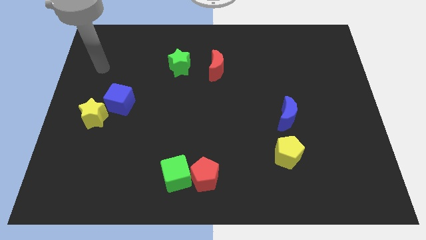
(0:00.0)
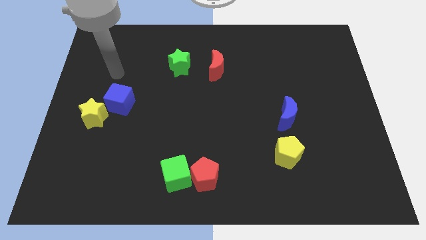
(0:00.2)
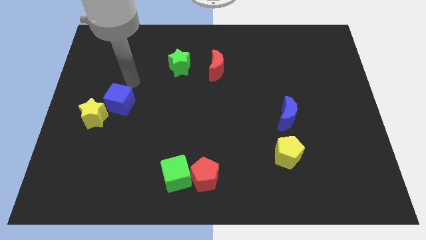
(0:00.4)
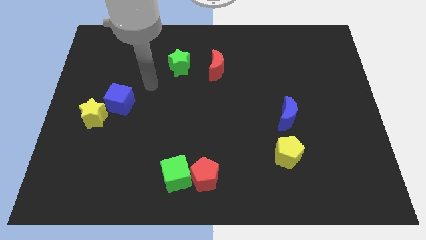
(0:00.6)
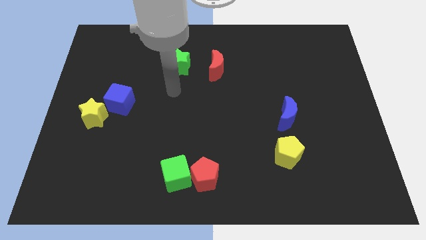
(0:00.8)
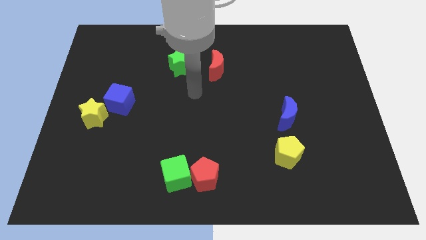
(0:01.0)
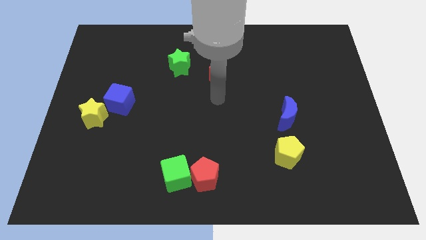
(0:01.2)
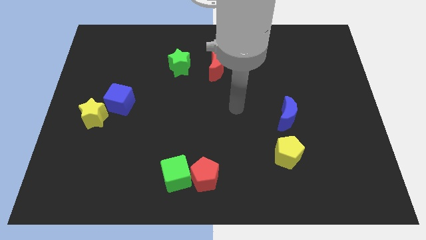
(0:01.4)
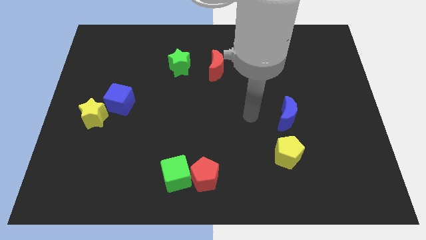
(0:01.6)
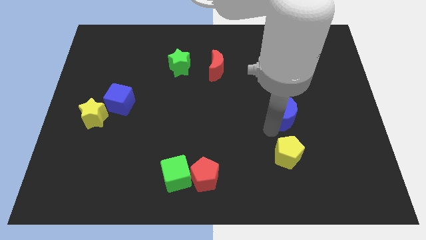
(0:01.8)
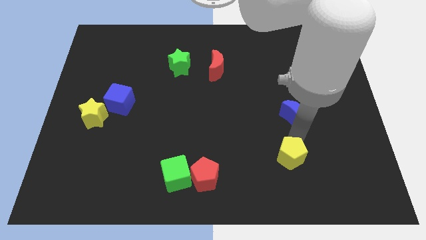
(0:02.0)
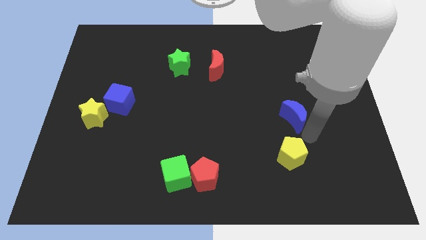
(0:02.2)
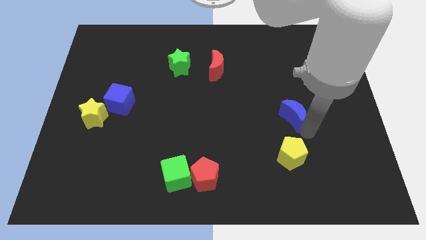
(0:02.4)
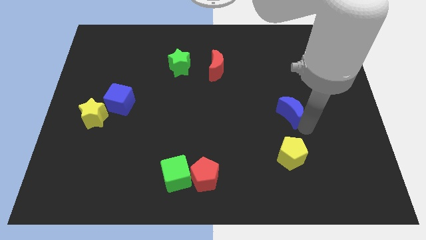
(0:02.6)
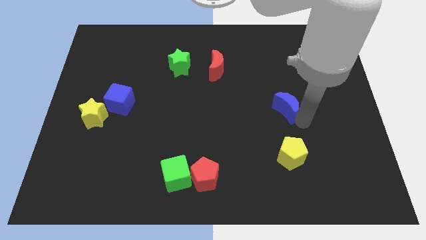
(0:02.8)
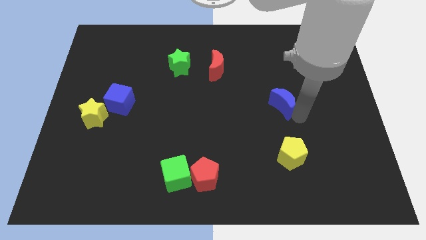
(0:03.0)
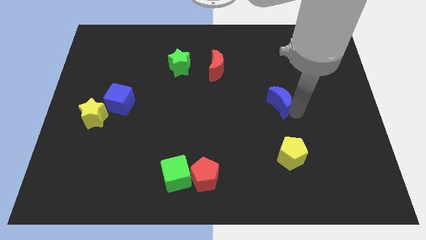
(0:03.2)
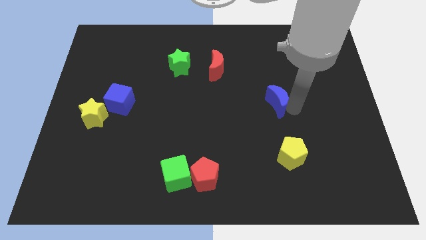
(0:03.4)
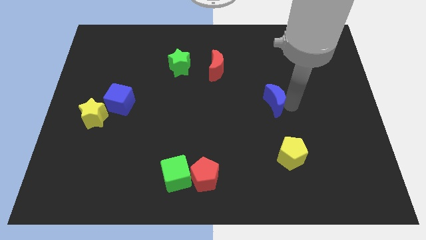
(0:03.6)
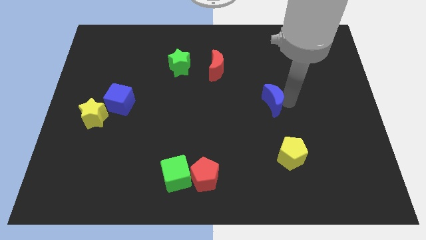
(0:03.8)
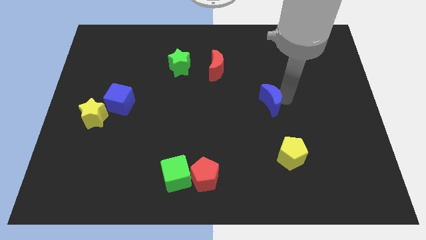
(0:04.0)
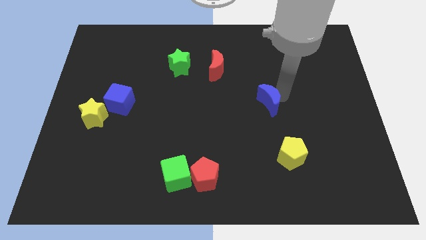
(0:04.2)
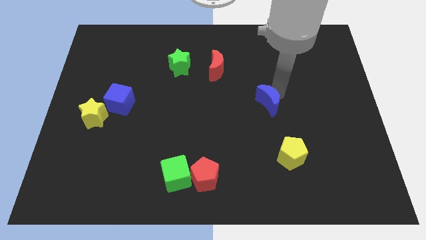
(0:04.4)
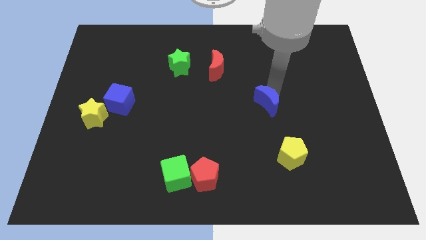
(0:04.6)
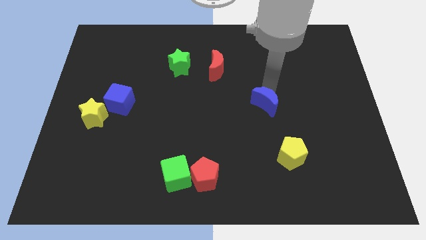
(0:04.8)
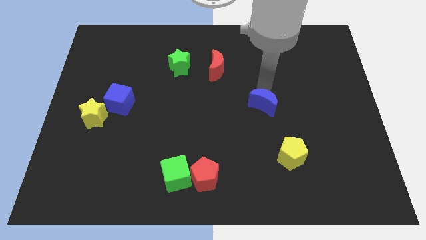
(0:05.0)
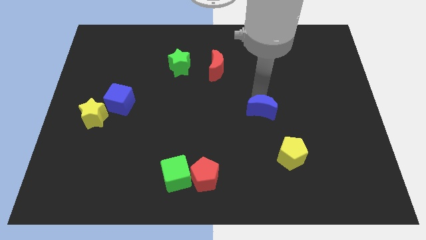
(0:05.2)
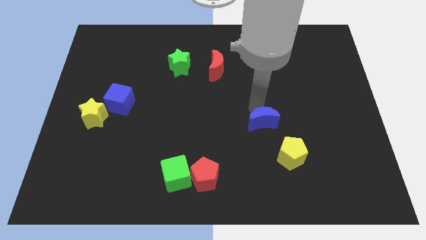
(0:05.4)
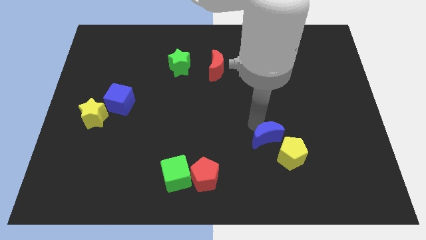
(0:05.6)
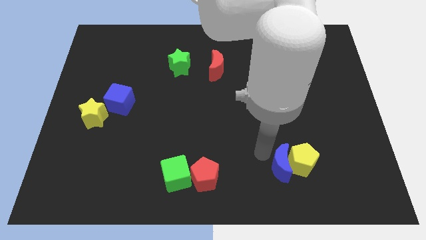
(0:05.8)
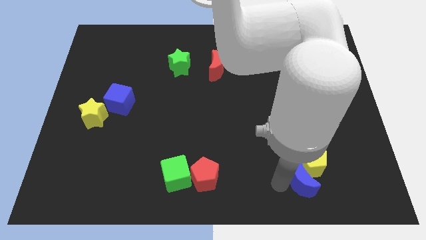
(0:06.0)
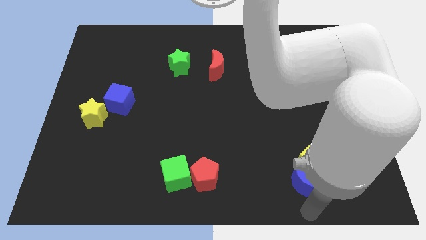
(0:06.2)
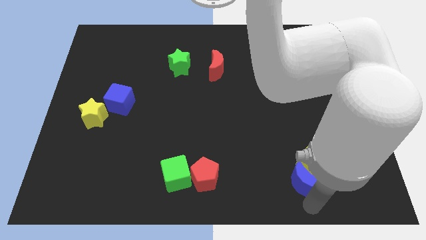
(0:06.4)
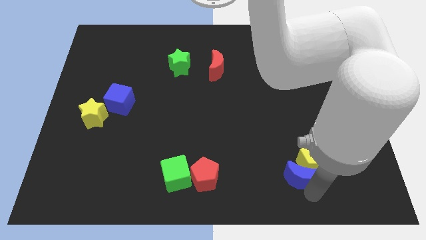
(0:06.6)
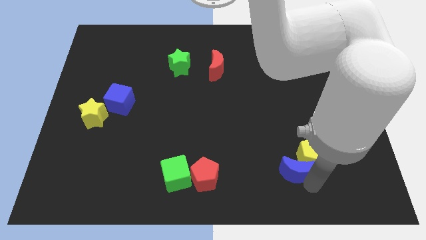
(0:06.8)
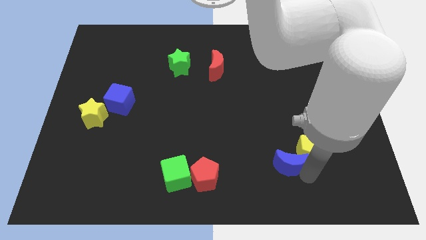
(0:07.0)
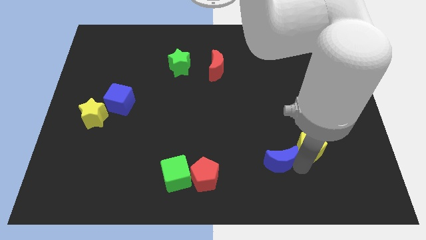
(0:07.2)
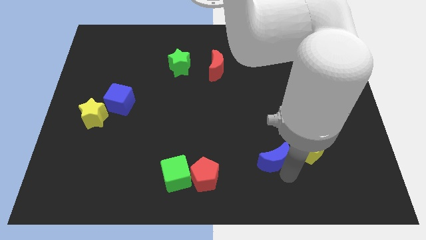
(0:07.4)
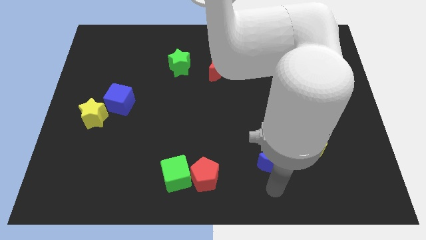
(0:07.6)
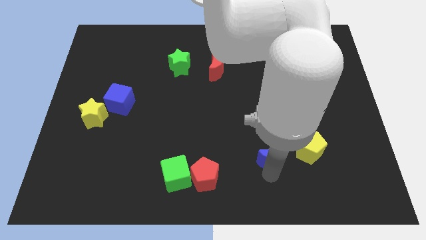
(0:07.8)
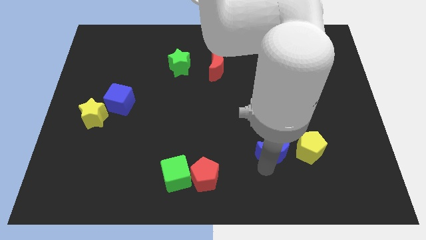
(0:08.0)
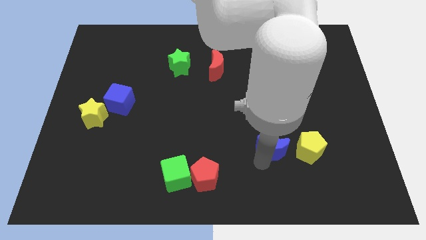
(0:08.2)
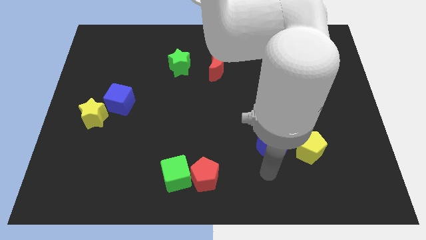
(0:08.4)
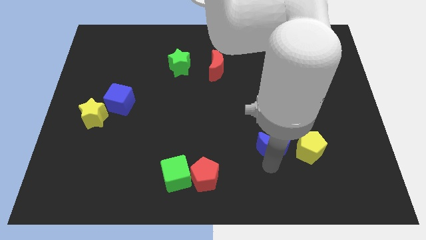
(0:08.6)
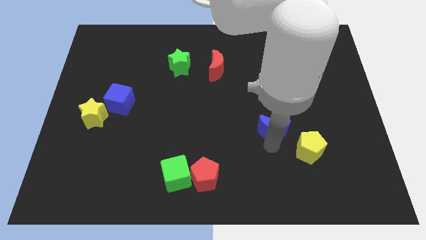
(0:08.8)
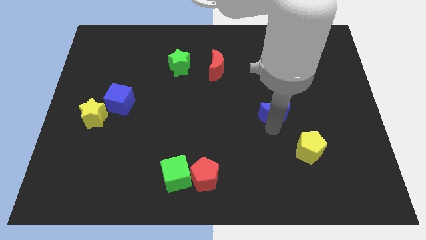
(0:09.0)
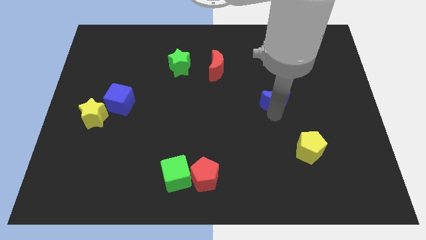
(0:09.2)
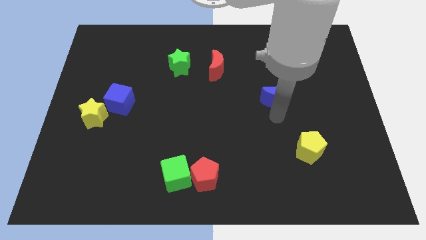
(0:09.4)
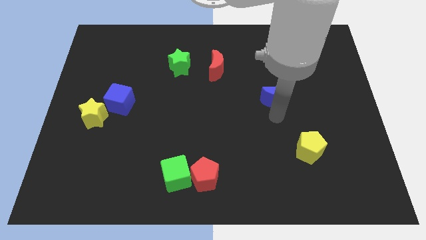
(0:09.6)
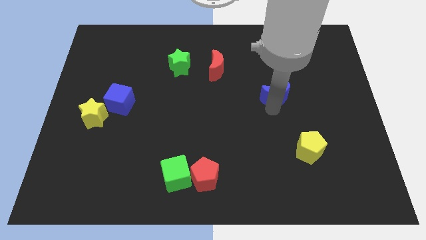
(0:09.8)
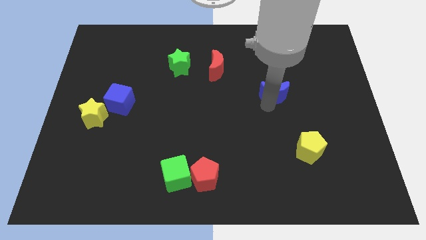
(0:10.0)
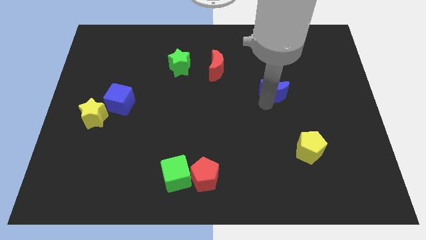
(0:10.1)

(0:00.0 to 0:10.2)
push the blue moon a little bit up

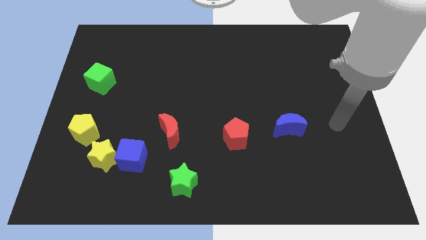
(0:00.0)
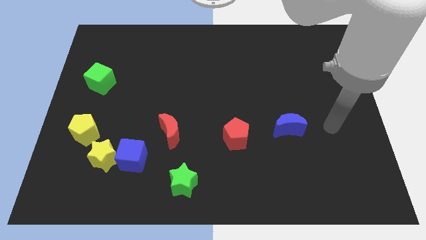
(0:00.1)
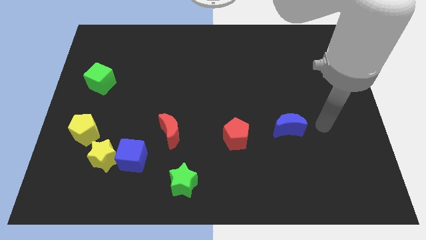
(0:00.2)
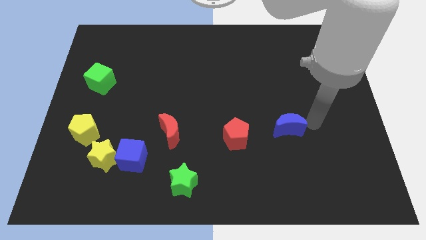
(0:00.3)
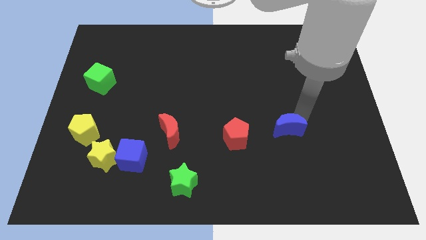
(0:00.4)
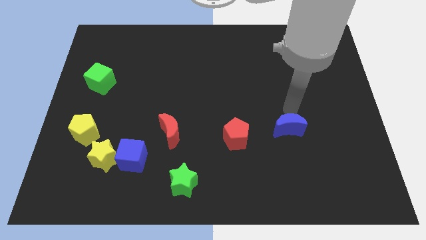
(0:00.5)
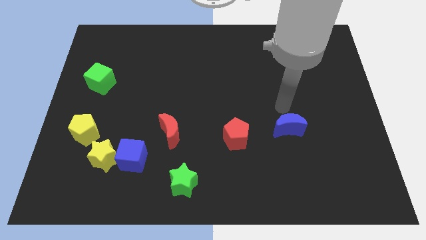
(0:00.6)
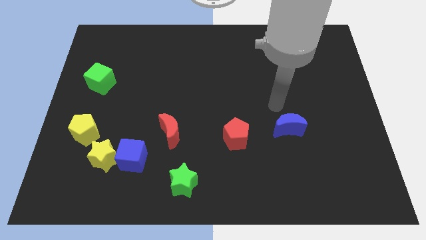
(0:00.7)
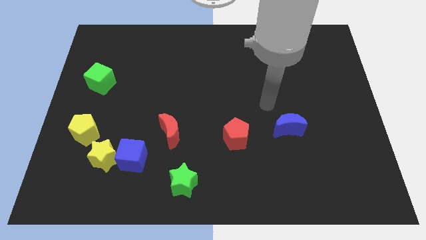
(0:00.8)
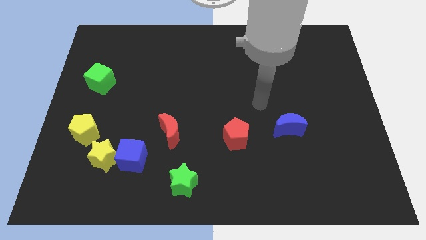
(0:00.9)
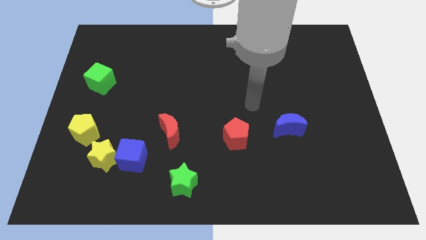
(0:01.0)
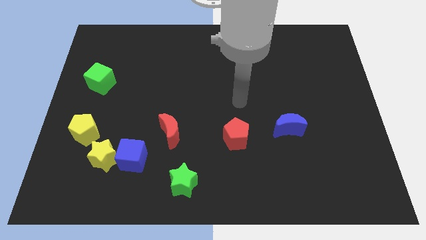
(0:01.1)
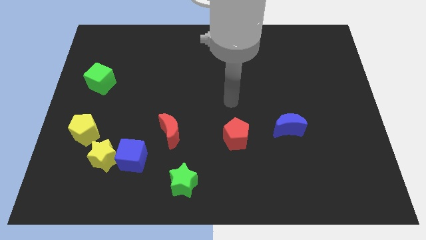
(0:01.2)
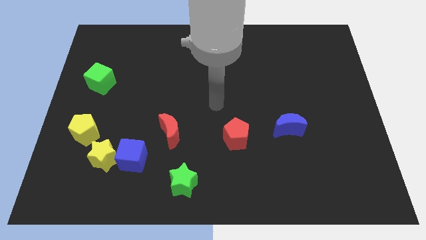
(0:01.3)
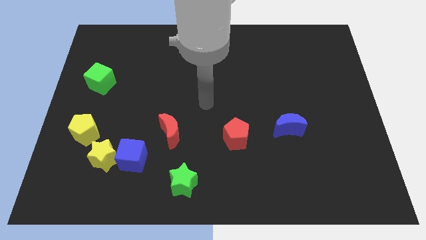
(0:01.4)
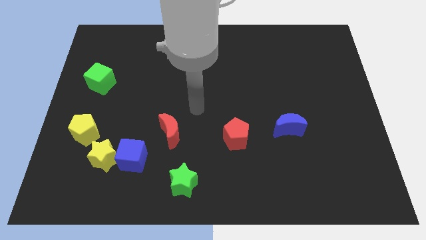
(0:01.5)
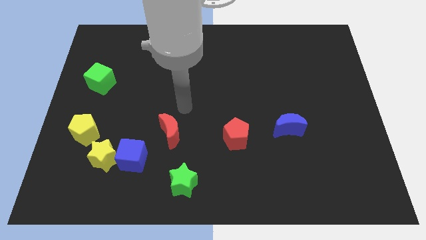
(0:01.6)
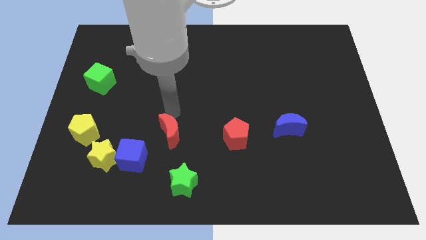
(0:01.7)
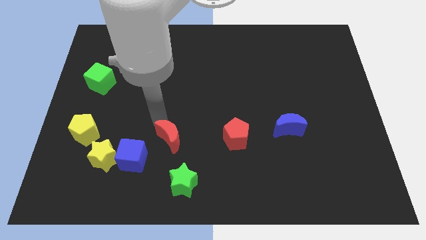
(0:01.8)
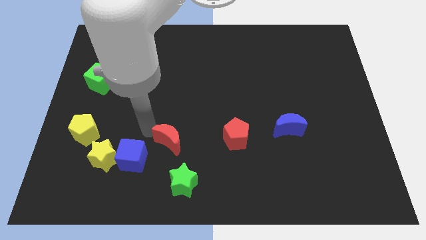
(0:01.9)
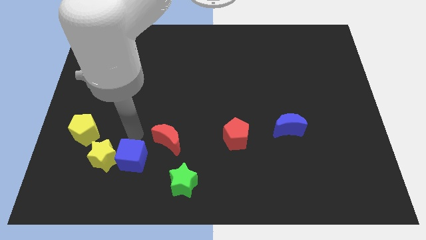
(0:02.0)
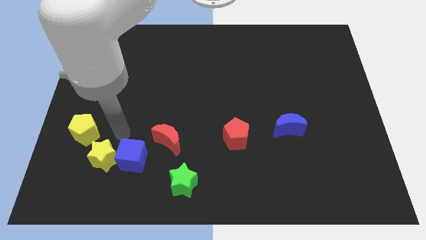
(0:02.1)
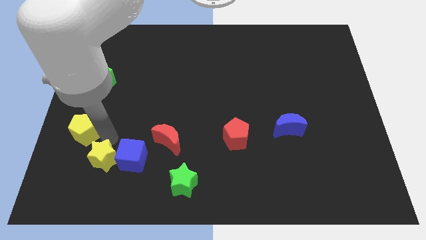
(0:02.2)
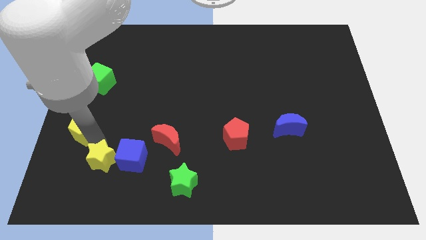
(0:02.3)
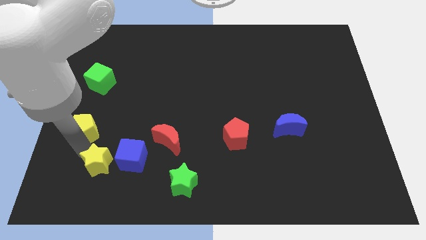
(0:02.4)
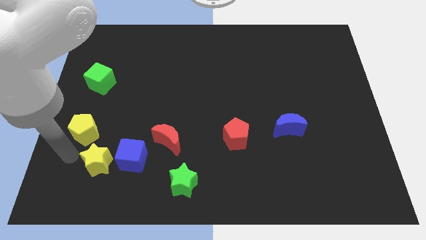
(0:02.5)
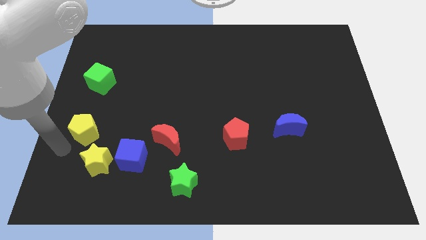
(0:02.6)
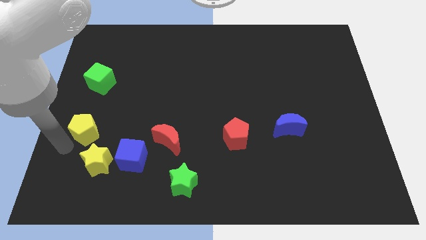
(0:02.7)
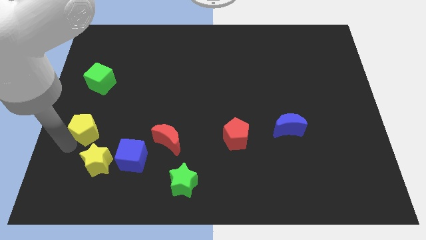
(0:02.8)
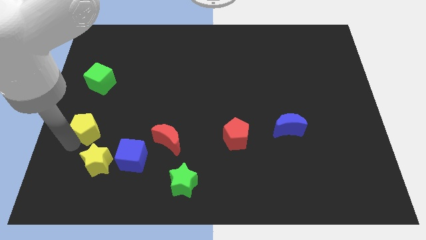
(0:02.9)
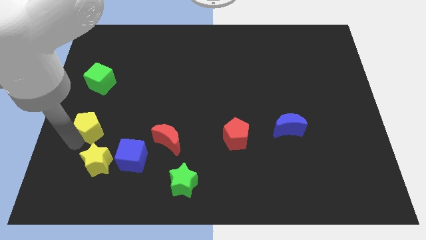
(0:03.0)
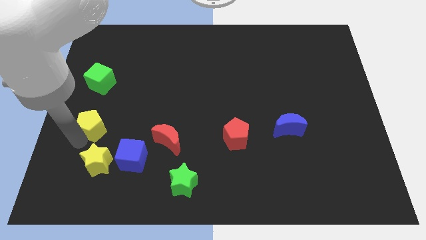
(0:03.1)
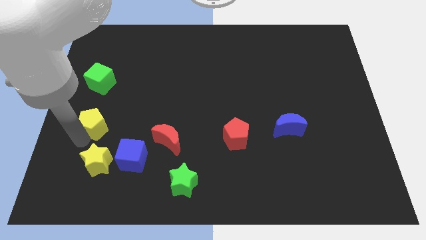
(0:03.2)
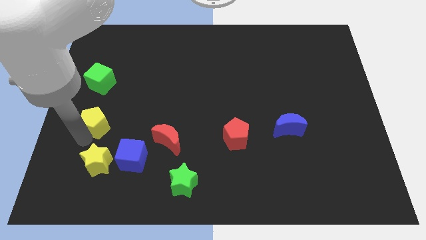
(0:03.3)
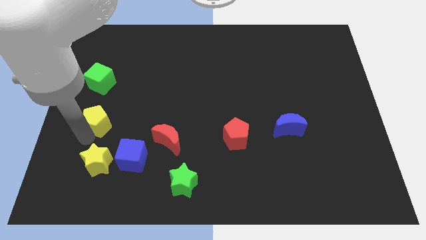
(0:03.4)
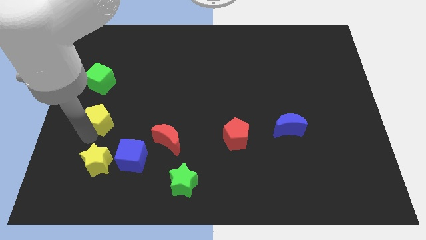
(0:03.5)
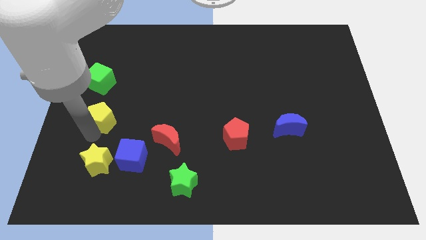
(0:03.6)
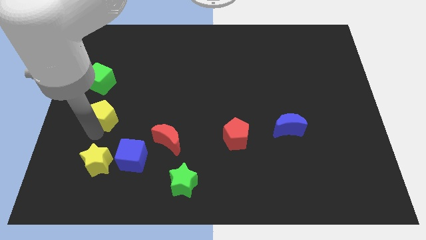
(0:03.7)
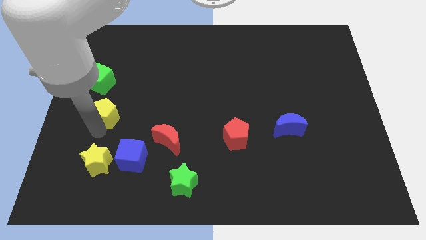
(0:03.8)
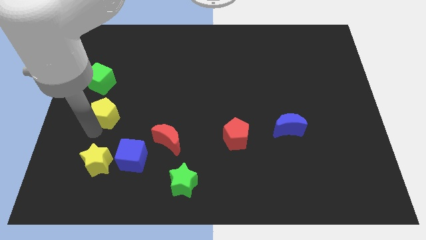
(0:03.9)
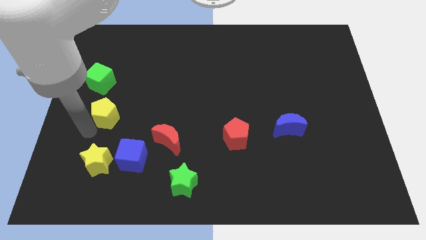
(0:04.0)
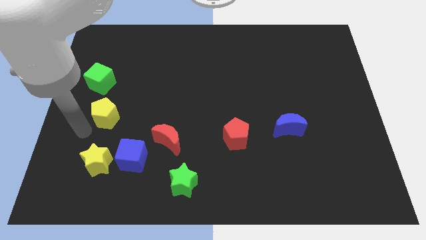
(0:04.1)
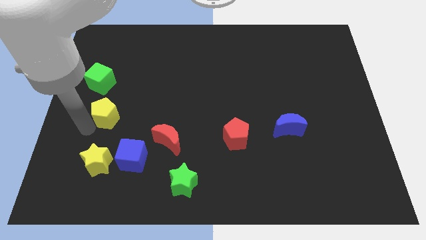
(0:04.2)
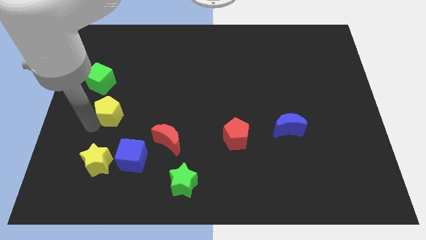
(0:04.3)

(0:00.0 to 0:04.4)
slightly move the yellow pentagon up and right
